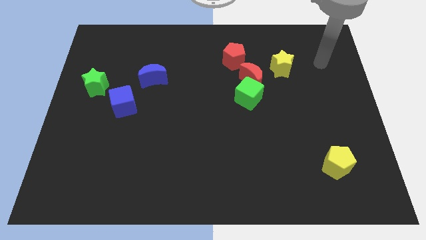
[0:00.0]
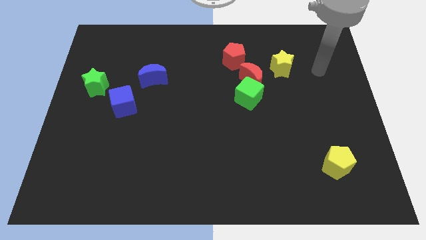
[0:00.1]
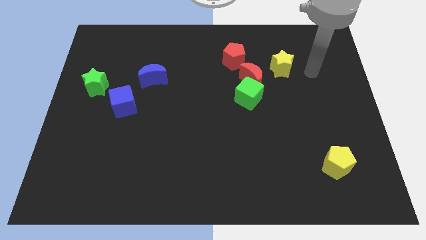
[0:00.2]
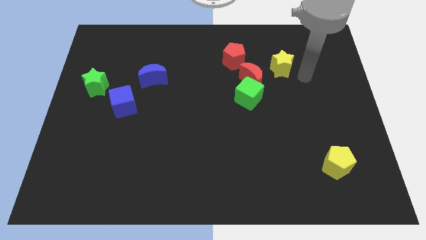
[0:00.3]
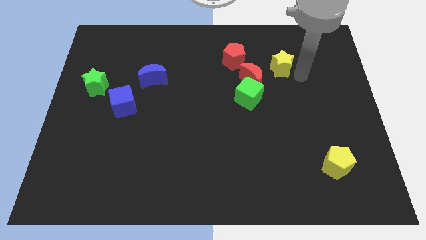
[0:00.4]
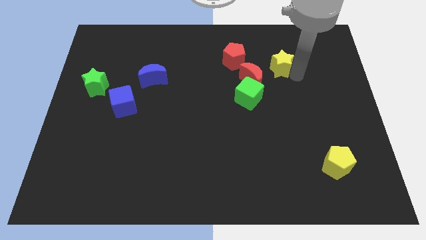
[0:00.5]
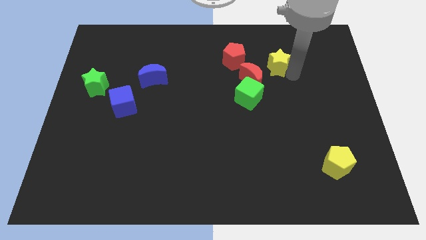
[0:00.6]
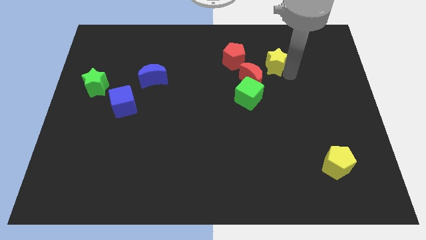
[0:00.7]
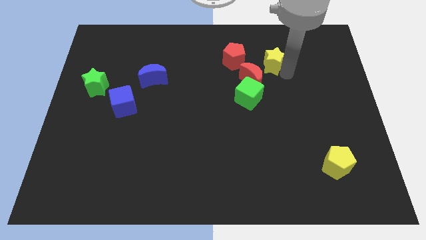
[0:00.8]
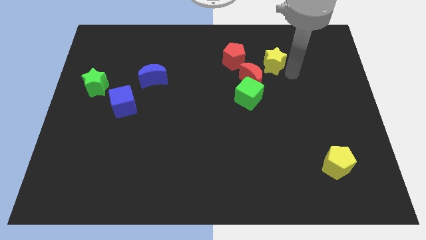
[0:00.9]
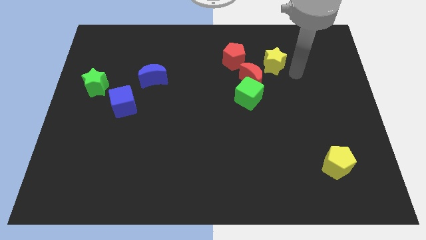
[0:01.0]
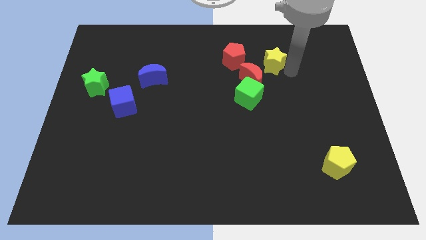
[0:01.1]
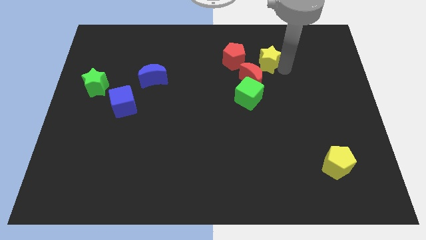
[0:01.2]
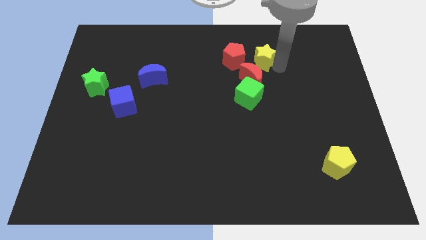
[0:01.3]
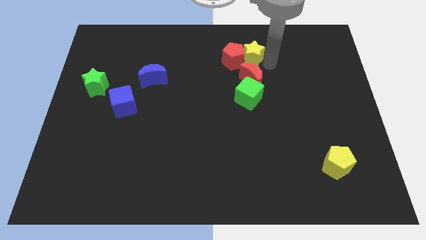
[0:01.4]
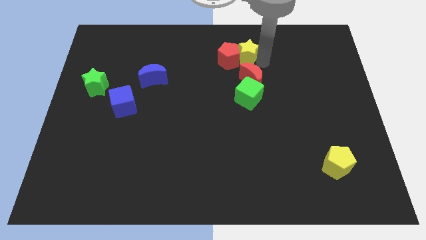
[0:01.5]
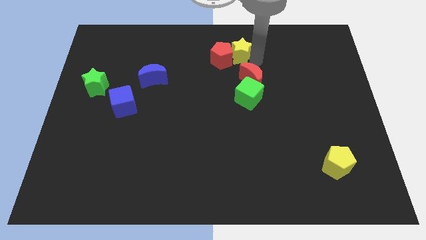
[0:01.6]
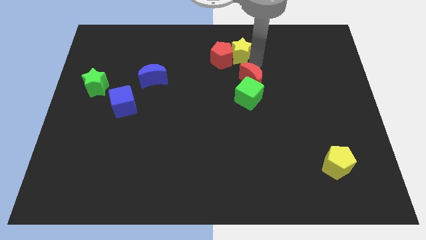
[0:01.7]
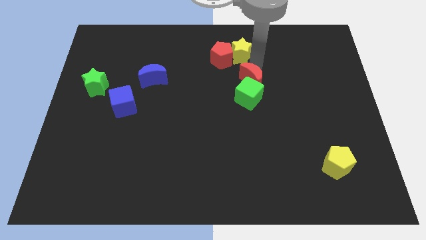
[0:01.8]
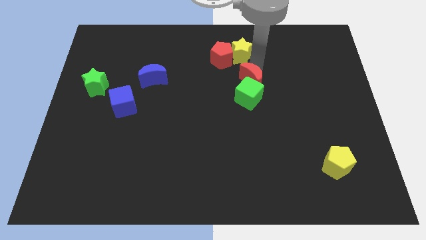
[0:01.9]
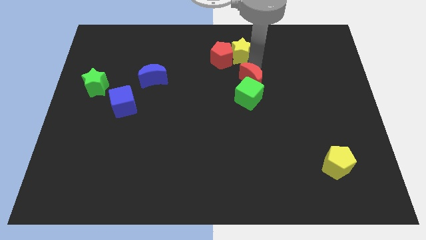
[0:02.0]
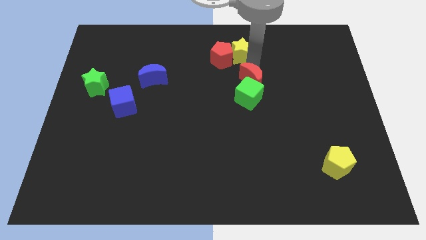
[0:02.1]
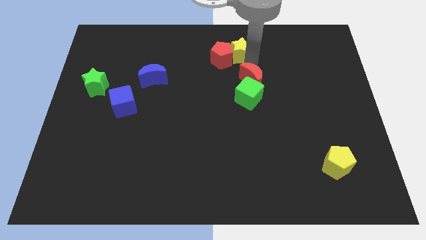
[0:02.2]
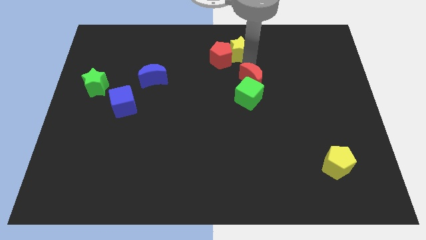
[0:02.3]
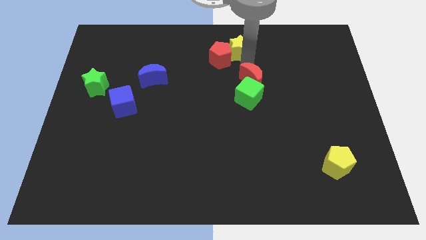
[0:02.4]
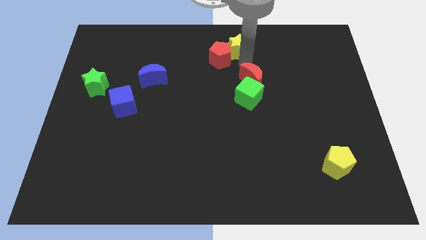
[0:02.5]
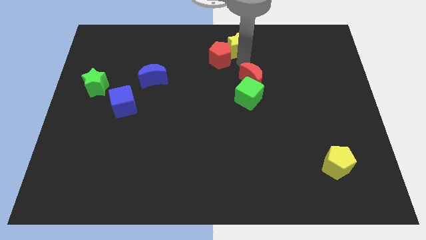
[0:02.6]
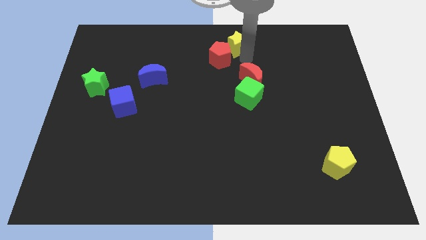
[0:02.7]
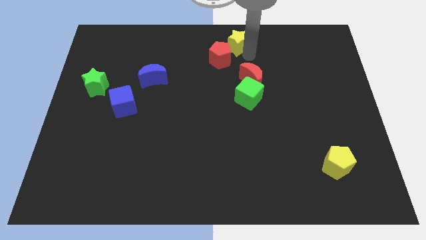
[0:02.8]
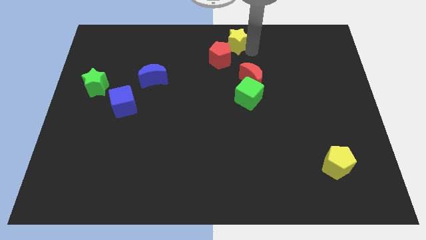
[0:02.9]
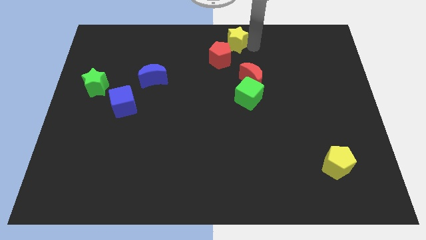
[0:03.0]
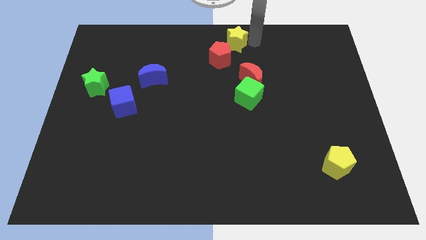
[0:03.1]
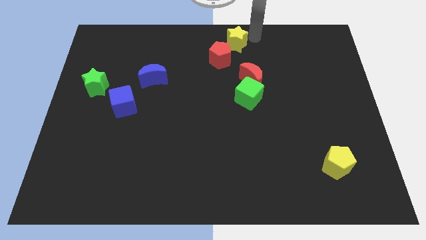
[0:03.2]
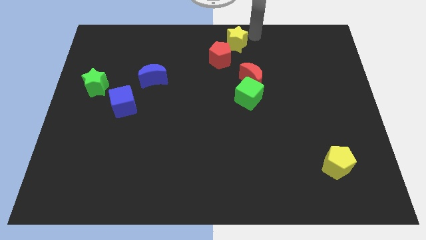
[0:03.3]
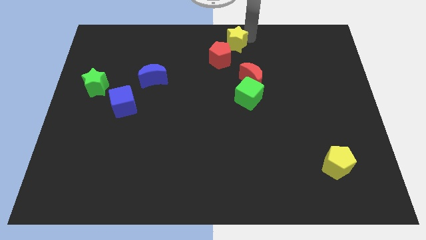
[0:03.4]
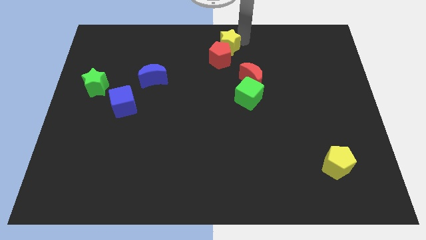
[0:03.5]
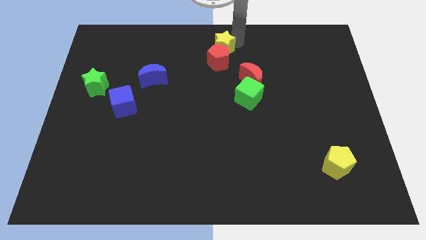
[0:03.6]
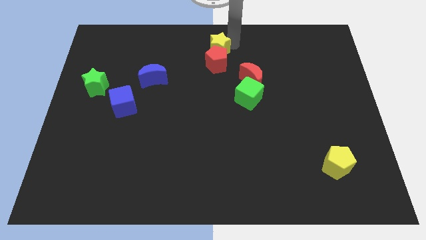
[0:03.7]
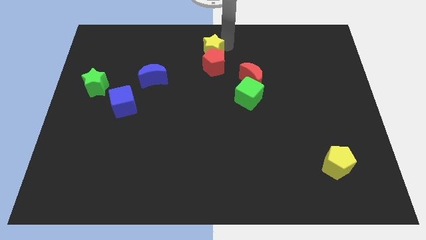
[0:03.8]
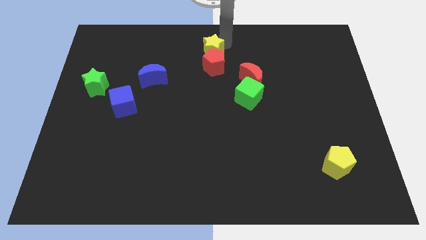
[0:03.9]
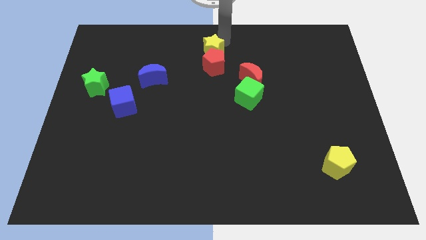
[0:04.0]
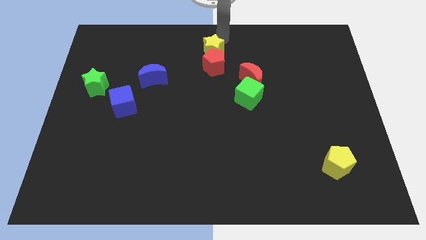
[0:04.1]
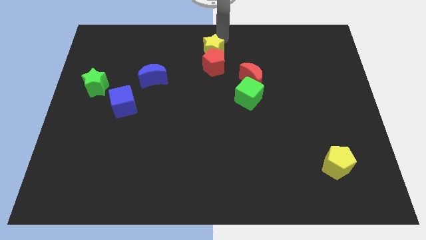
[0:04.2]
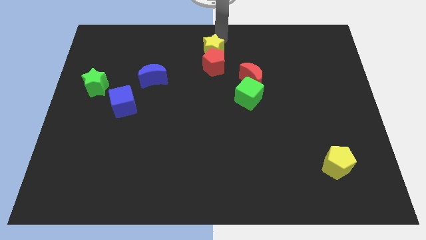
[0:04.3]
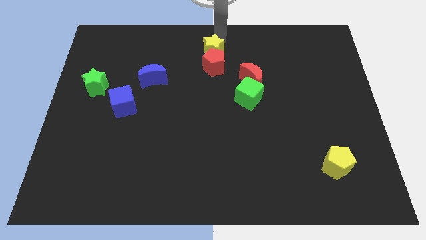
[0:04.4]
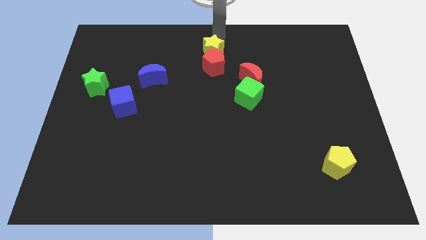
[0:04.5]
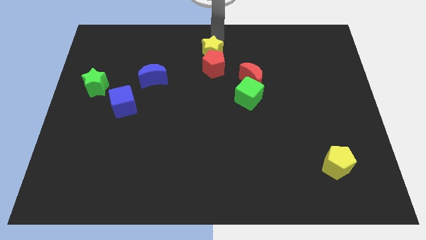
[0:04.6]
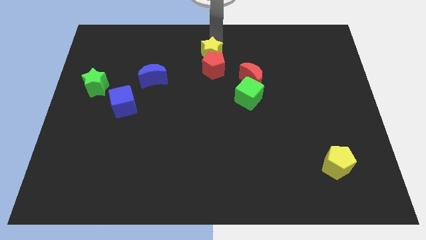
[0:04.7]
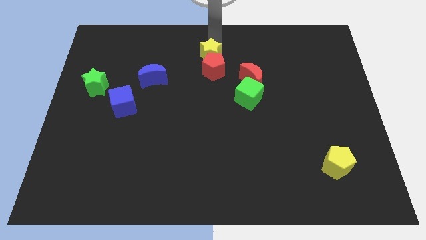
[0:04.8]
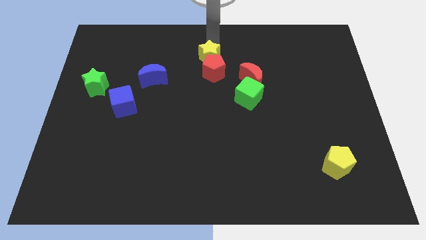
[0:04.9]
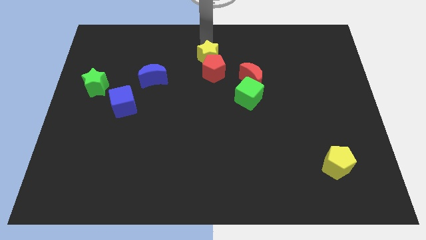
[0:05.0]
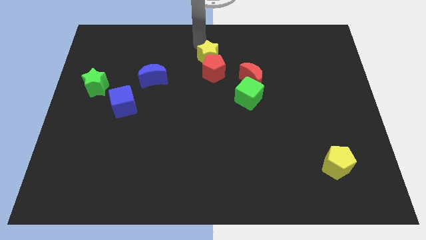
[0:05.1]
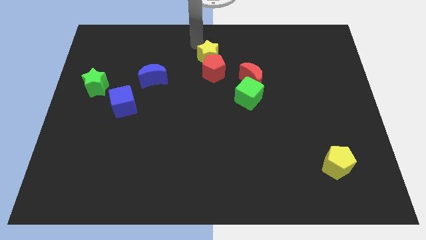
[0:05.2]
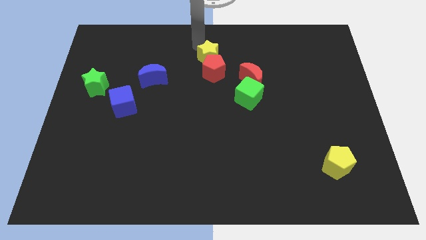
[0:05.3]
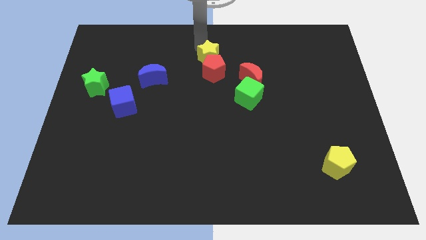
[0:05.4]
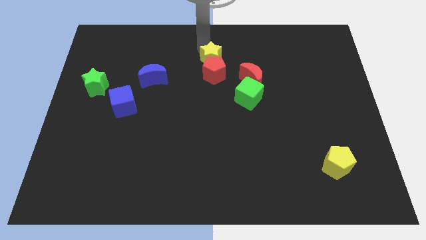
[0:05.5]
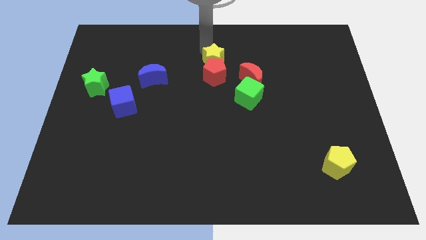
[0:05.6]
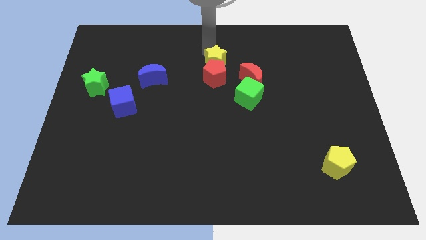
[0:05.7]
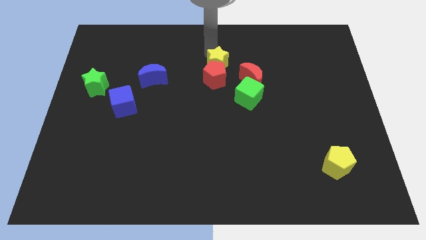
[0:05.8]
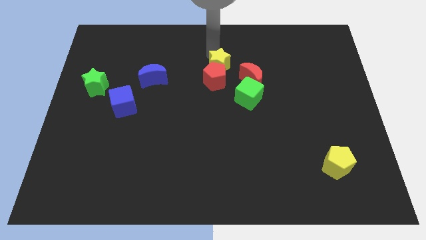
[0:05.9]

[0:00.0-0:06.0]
push the yellow star to the top left side of the green cube

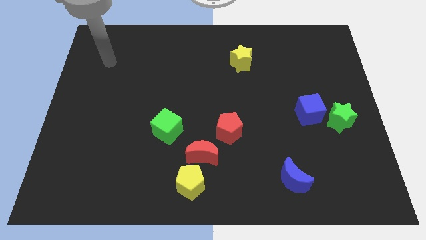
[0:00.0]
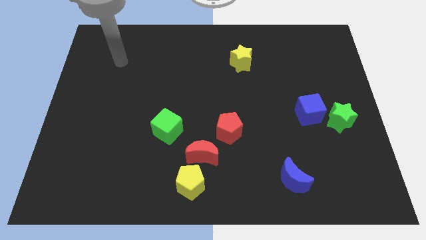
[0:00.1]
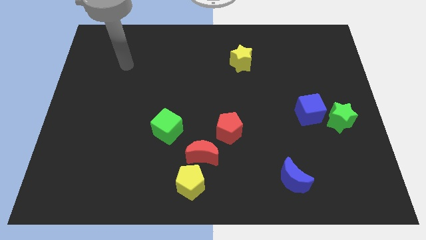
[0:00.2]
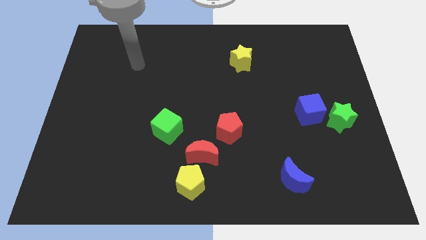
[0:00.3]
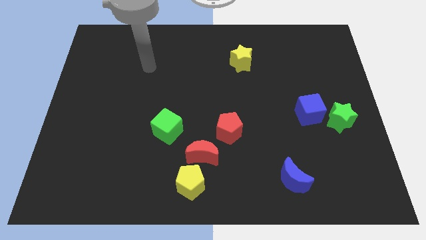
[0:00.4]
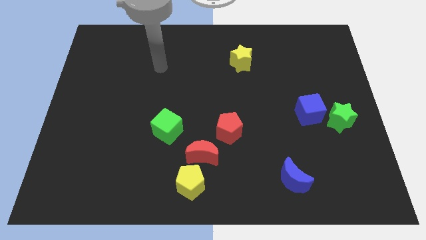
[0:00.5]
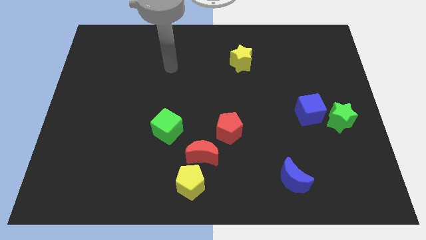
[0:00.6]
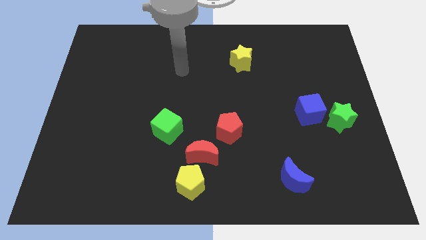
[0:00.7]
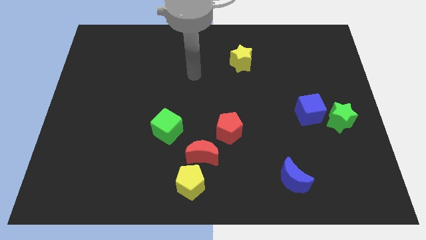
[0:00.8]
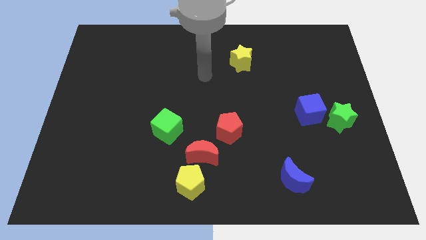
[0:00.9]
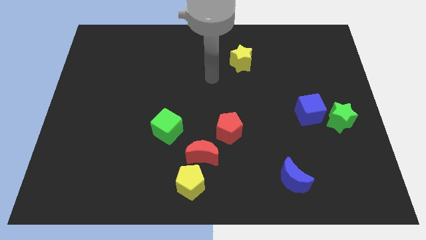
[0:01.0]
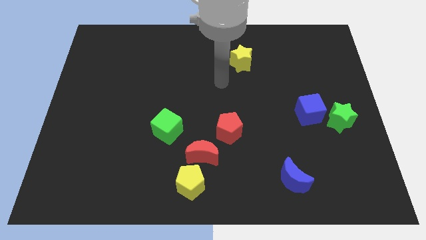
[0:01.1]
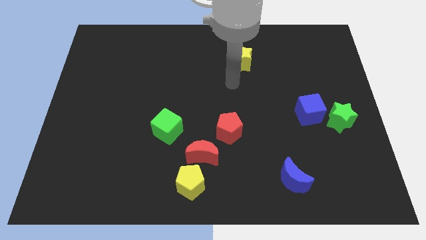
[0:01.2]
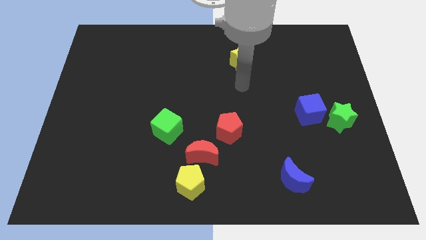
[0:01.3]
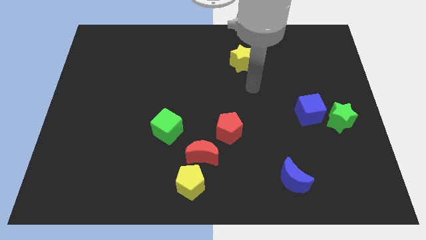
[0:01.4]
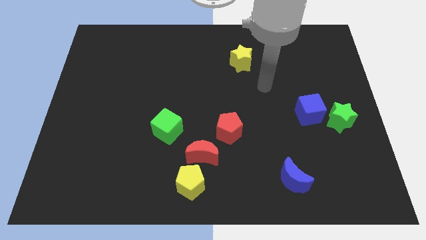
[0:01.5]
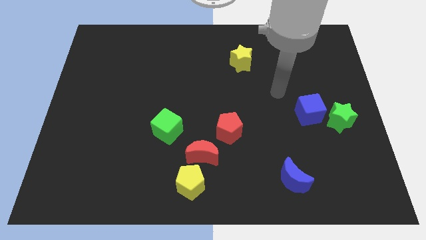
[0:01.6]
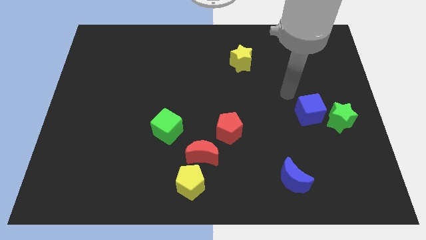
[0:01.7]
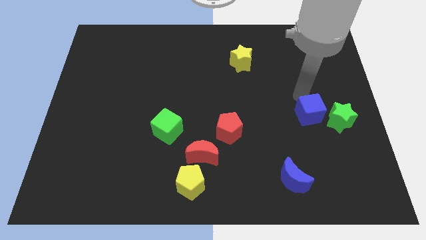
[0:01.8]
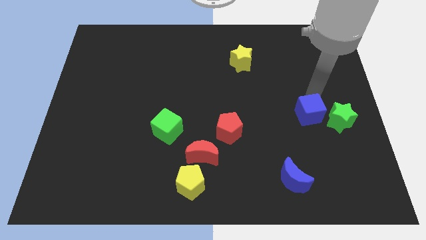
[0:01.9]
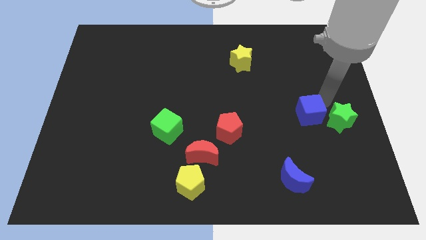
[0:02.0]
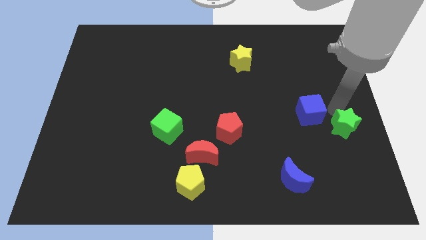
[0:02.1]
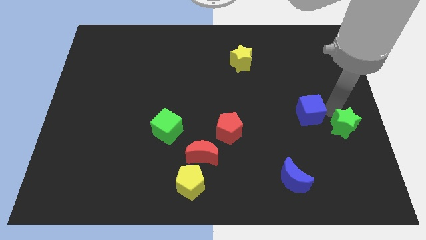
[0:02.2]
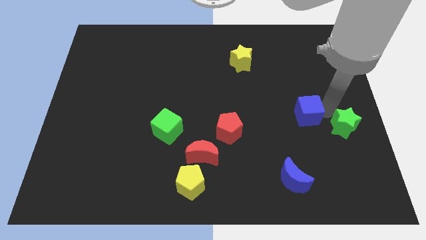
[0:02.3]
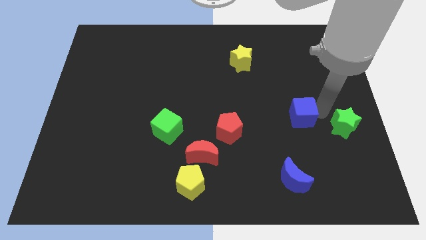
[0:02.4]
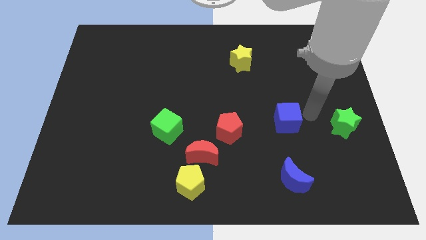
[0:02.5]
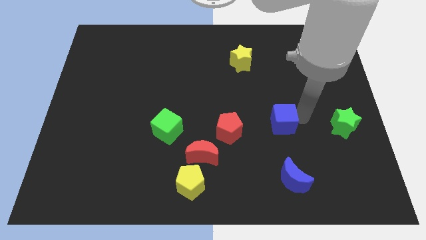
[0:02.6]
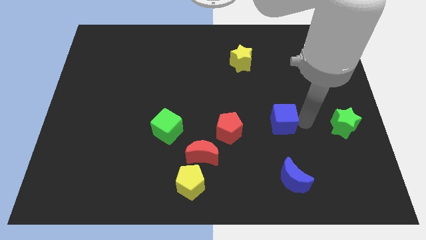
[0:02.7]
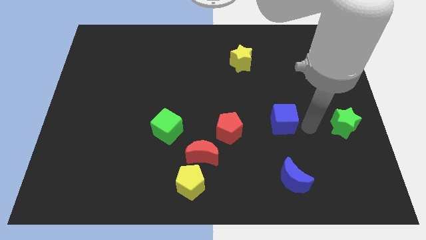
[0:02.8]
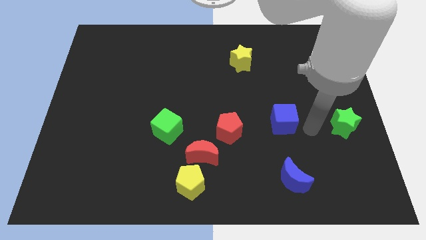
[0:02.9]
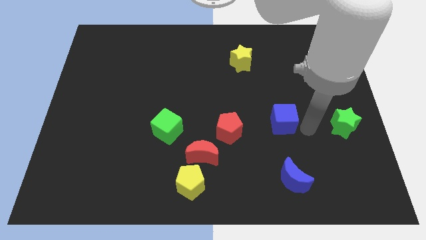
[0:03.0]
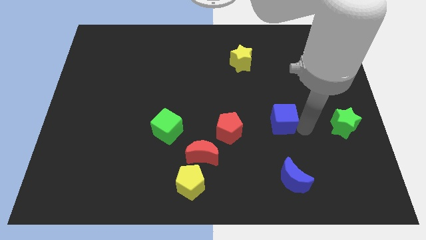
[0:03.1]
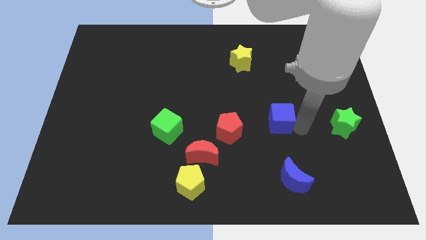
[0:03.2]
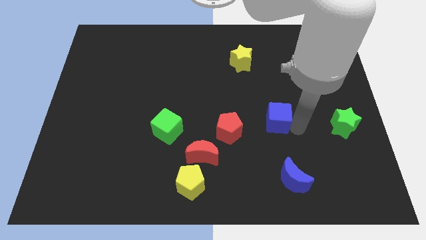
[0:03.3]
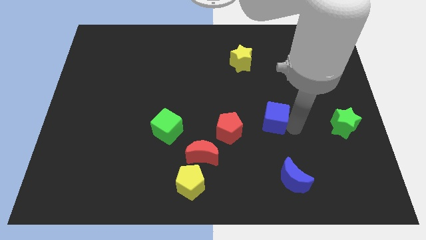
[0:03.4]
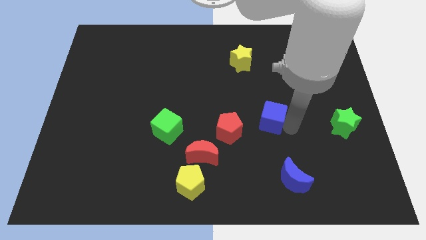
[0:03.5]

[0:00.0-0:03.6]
put the blue cube diagonally up and to the right of the red pentagon
